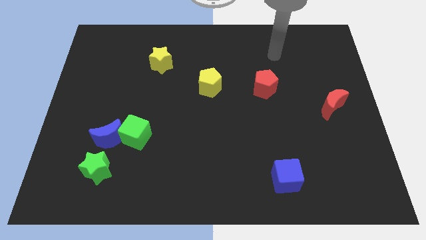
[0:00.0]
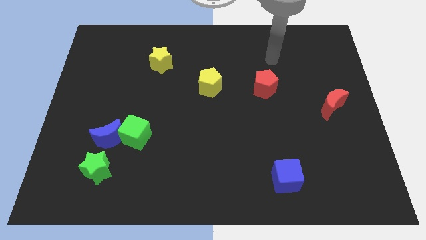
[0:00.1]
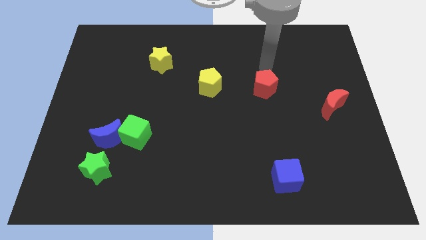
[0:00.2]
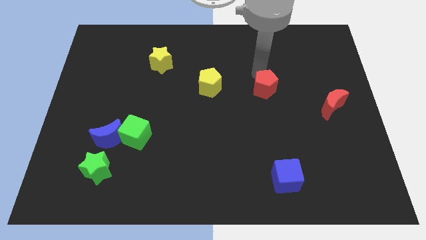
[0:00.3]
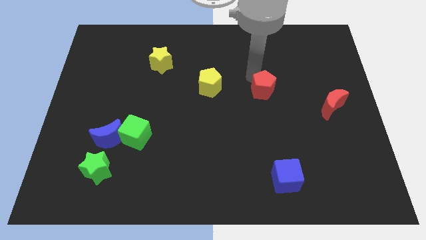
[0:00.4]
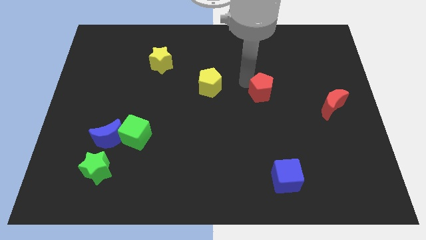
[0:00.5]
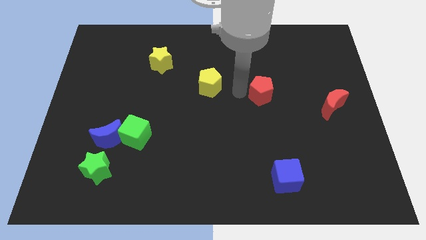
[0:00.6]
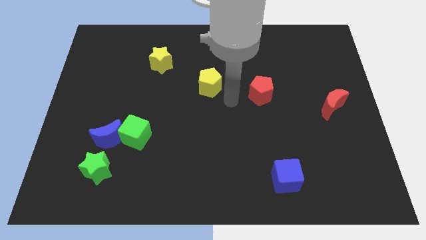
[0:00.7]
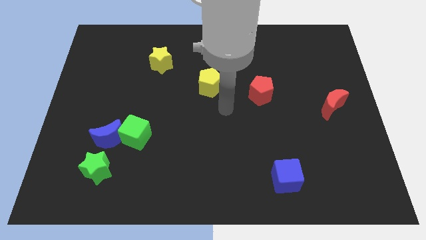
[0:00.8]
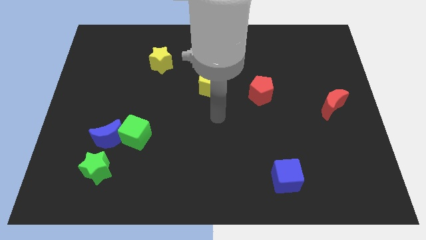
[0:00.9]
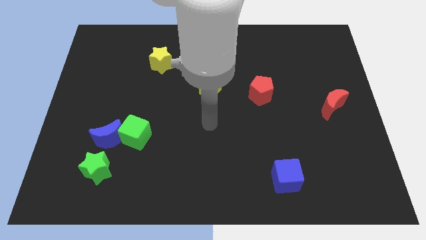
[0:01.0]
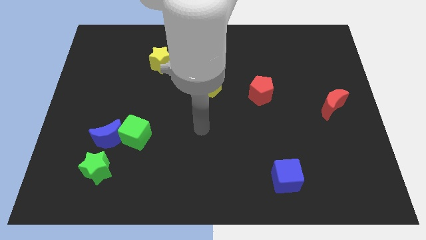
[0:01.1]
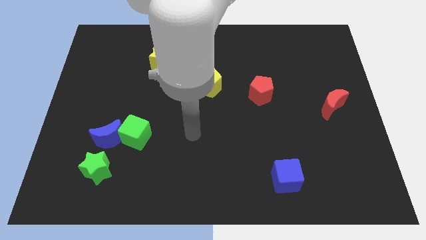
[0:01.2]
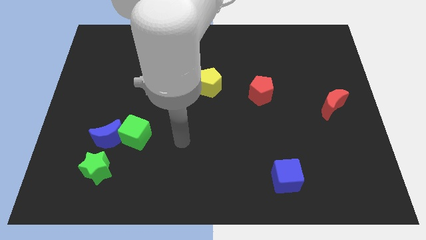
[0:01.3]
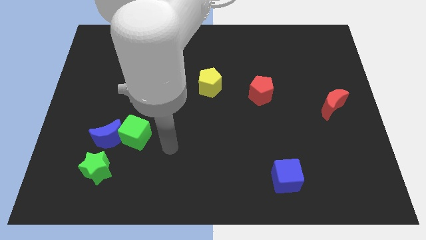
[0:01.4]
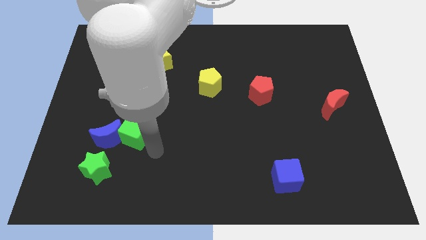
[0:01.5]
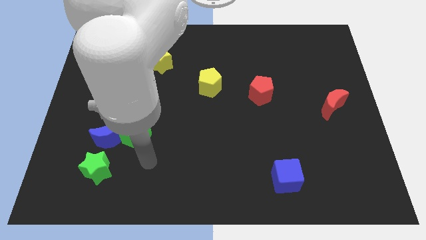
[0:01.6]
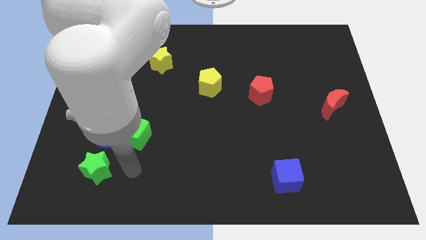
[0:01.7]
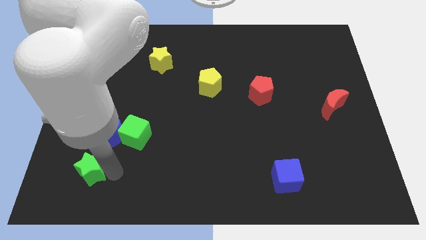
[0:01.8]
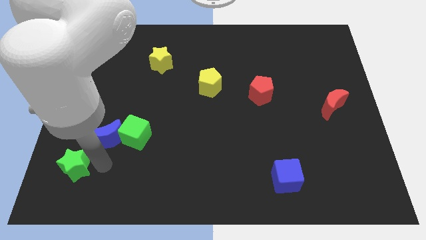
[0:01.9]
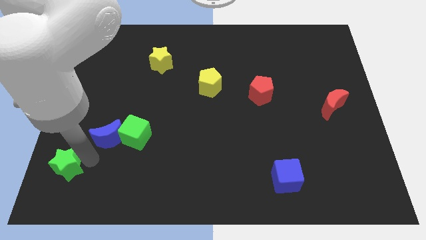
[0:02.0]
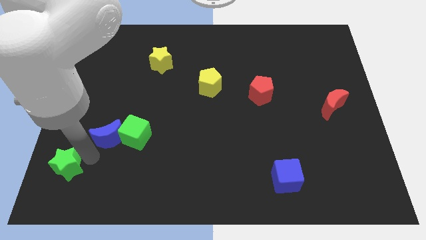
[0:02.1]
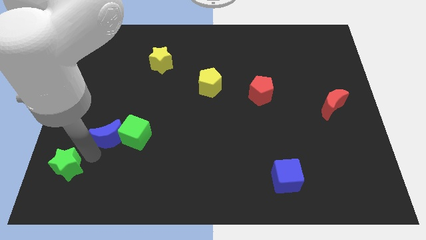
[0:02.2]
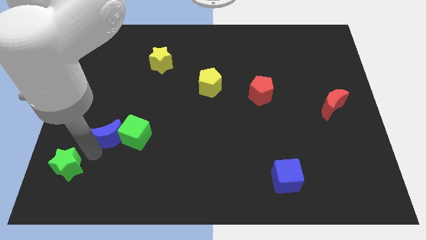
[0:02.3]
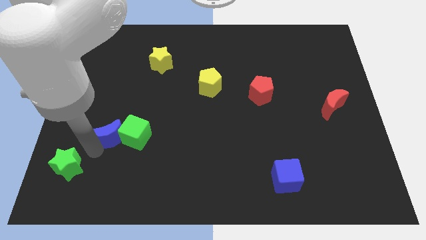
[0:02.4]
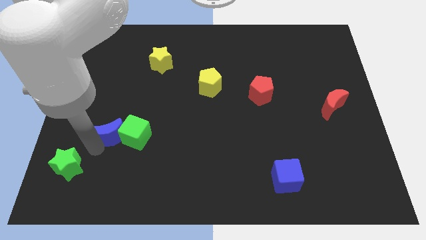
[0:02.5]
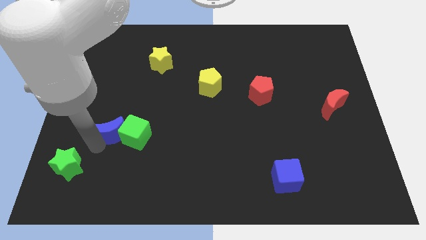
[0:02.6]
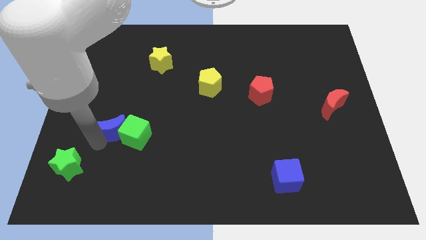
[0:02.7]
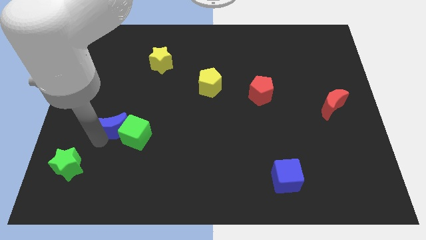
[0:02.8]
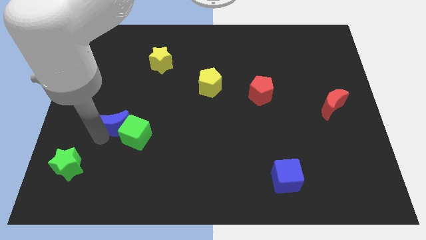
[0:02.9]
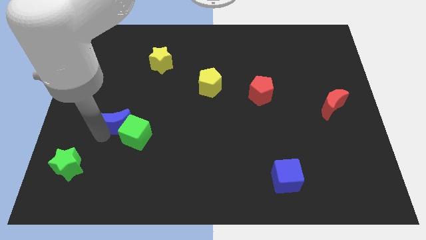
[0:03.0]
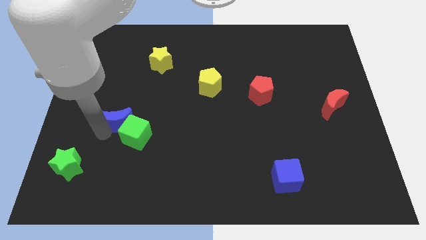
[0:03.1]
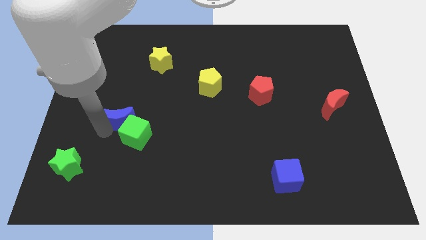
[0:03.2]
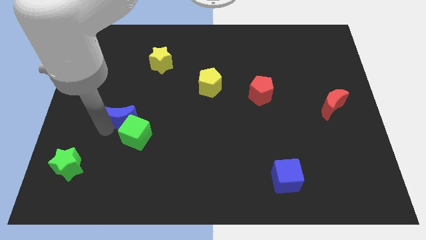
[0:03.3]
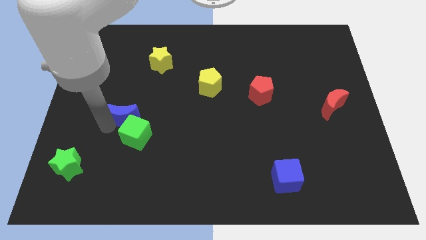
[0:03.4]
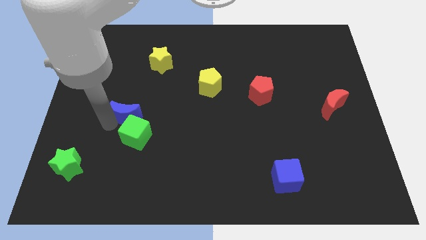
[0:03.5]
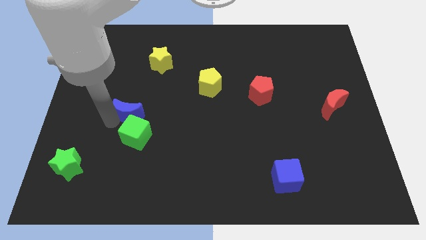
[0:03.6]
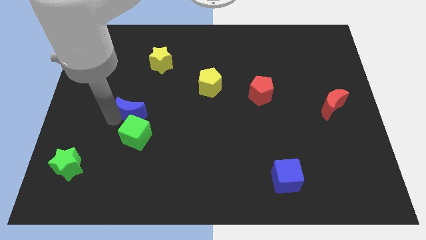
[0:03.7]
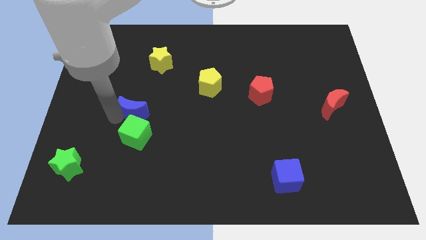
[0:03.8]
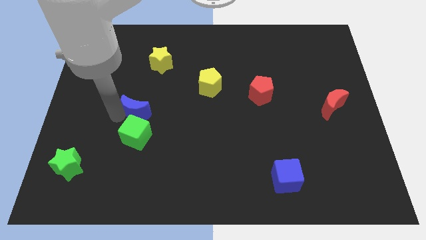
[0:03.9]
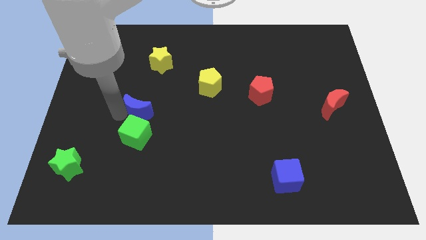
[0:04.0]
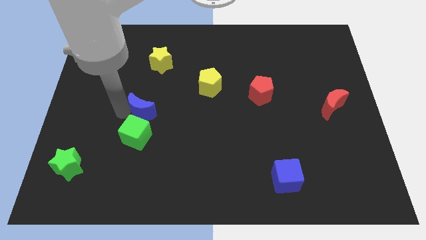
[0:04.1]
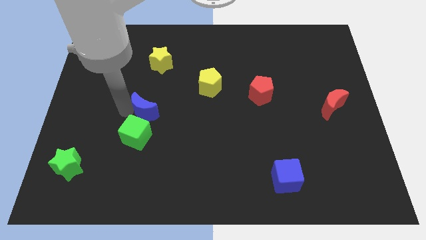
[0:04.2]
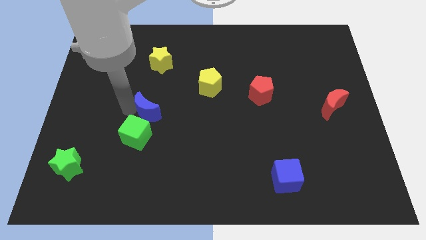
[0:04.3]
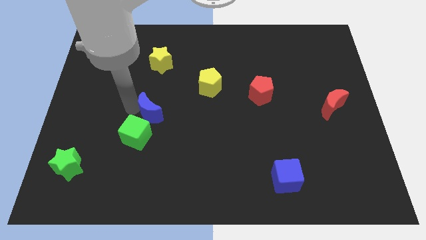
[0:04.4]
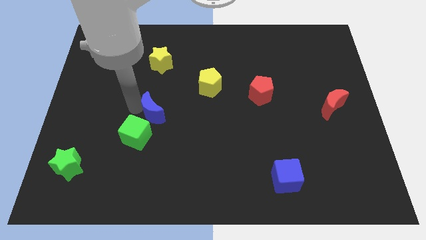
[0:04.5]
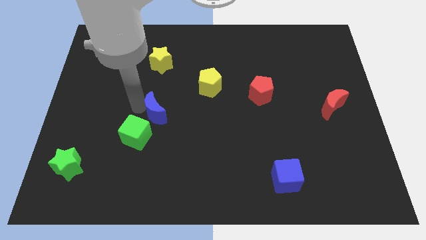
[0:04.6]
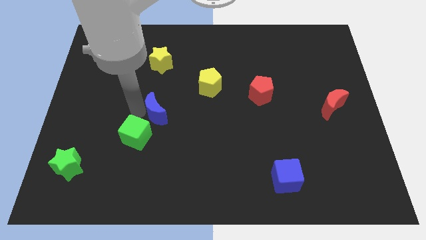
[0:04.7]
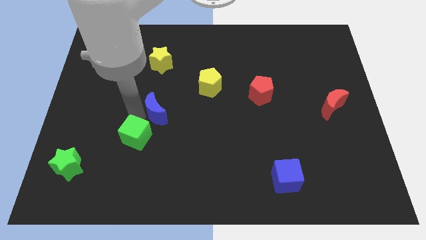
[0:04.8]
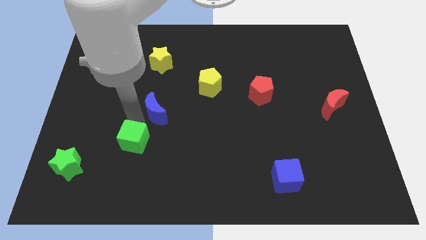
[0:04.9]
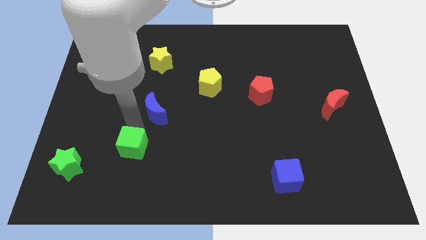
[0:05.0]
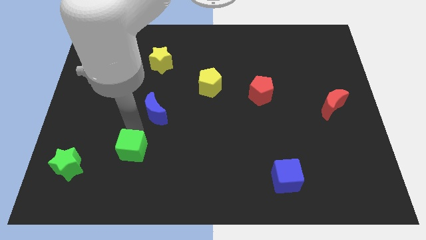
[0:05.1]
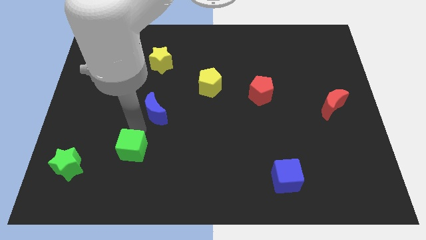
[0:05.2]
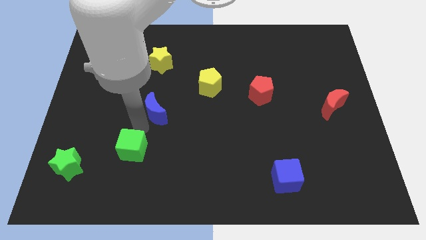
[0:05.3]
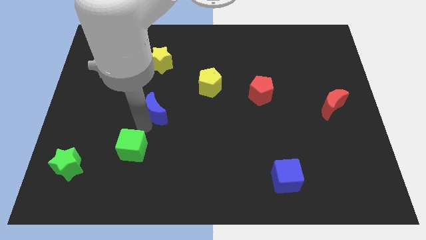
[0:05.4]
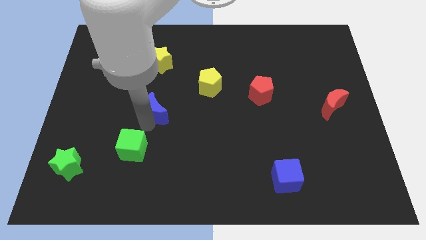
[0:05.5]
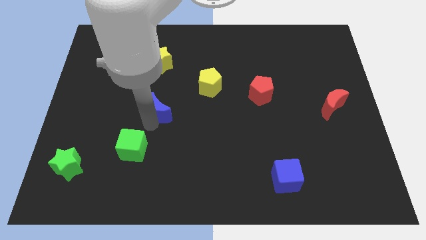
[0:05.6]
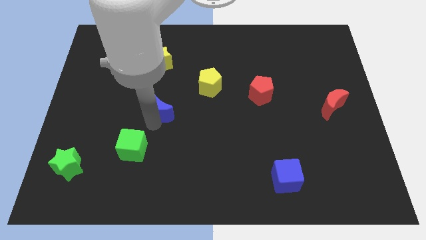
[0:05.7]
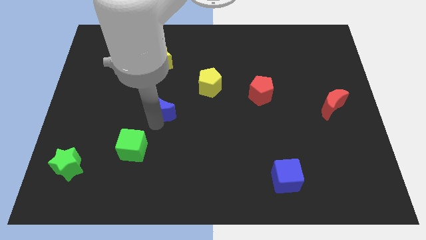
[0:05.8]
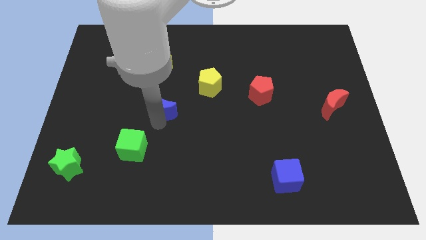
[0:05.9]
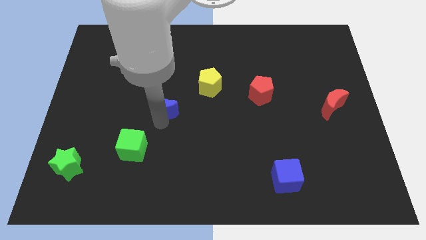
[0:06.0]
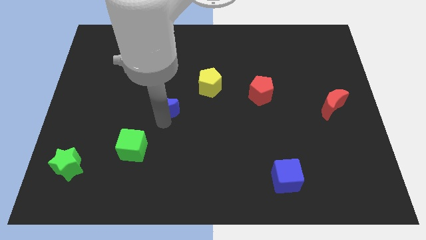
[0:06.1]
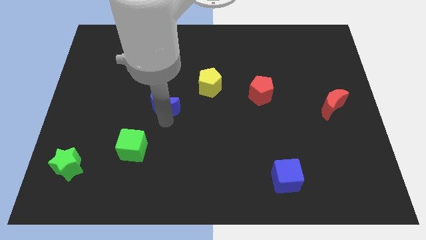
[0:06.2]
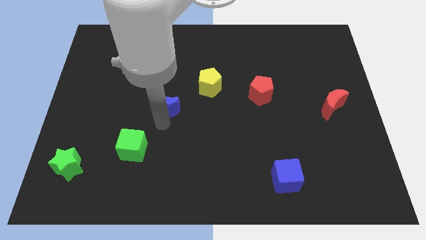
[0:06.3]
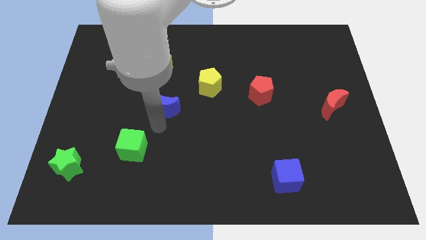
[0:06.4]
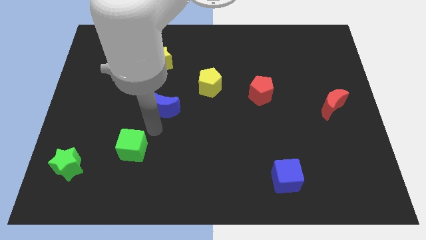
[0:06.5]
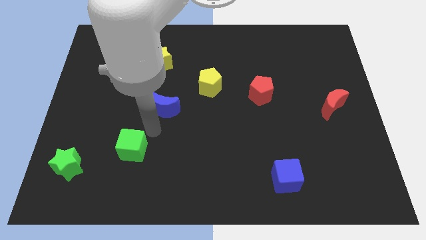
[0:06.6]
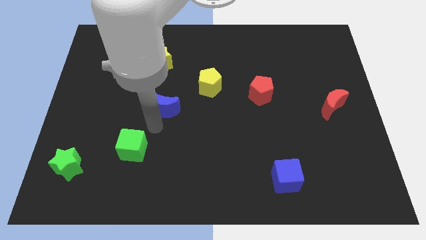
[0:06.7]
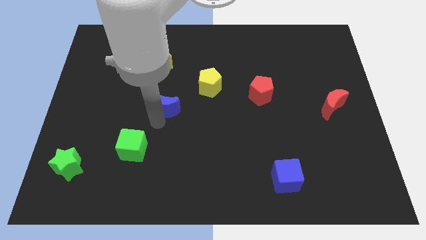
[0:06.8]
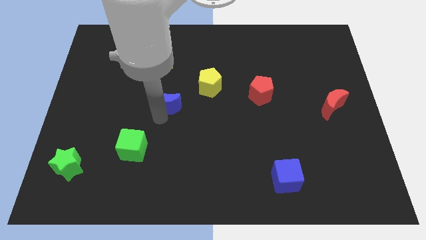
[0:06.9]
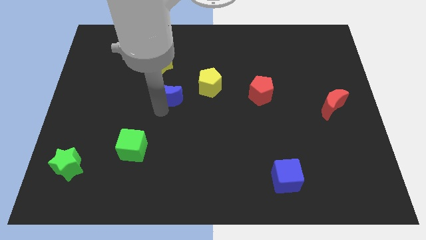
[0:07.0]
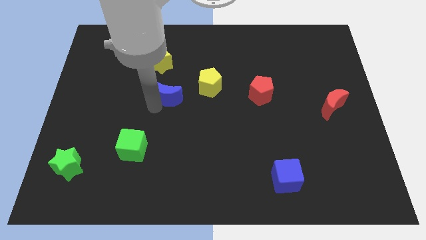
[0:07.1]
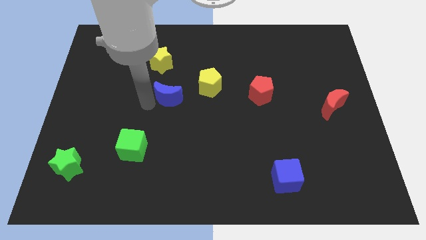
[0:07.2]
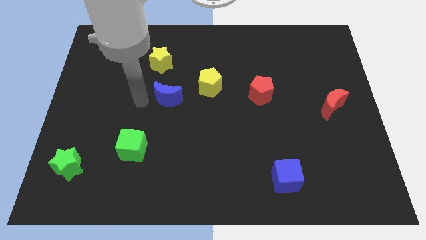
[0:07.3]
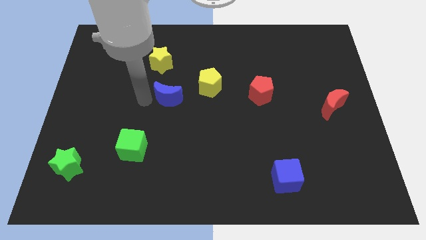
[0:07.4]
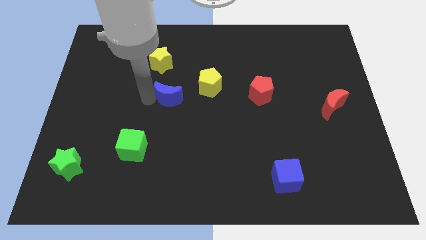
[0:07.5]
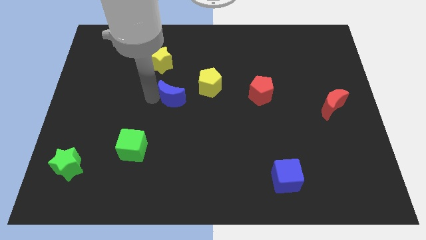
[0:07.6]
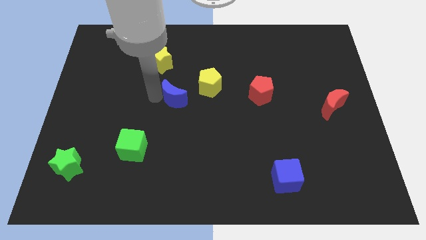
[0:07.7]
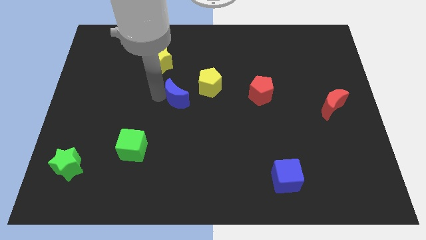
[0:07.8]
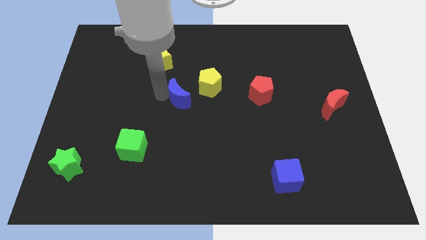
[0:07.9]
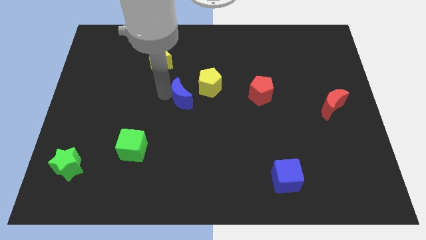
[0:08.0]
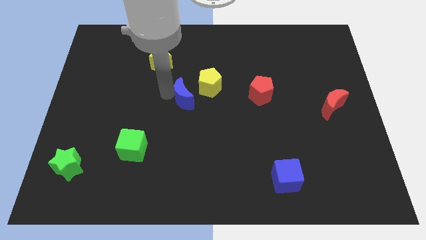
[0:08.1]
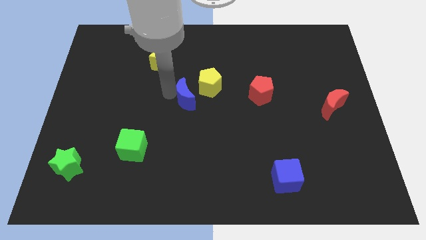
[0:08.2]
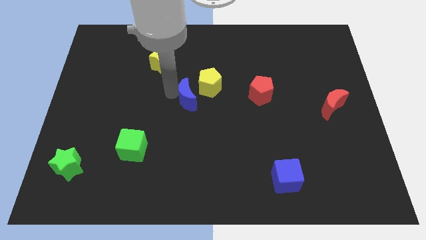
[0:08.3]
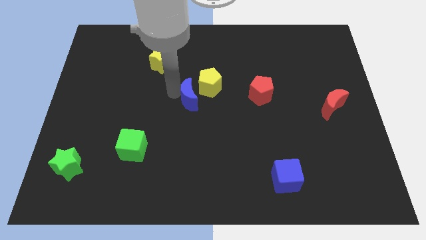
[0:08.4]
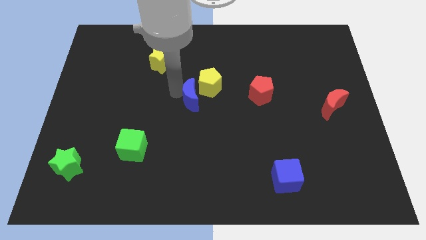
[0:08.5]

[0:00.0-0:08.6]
put the blue moon next to the yellow pentagon
